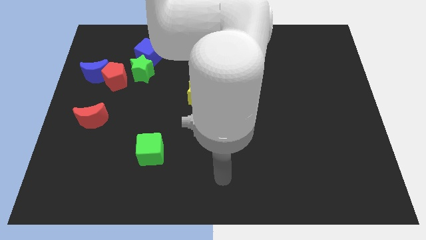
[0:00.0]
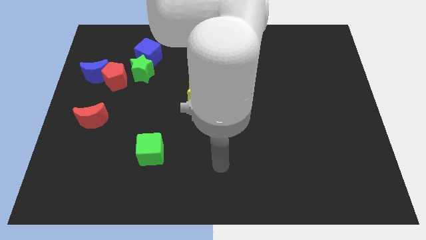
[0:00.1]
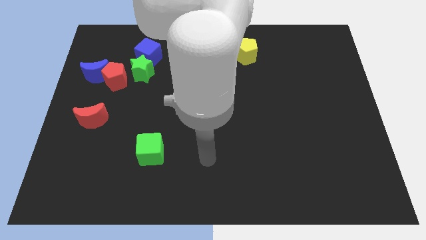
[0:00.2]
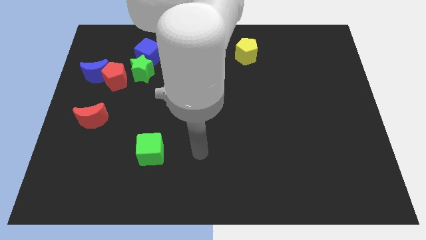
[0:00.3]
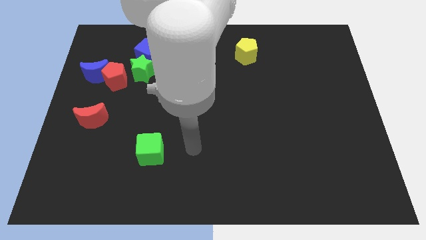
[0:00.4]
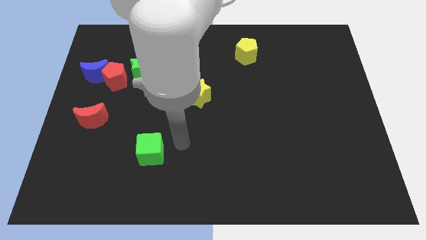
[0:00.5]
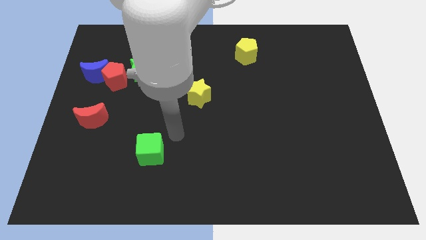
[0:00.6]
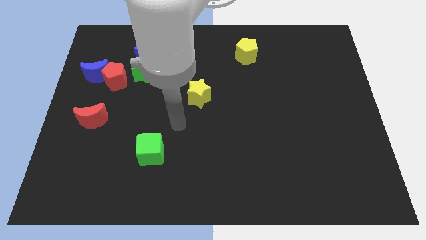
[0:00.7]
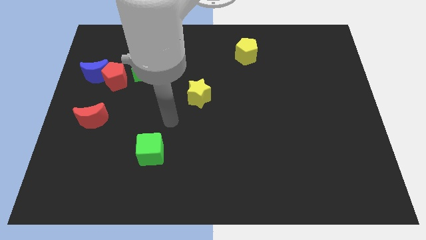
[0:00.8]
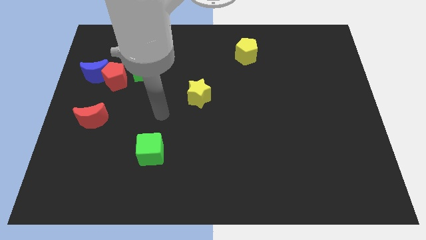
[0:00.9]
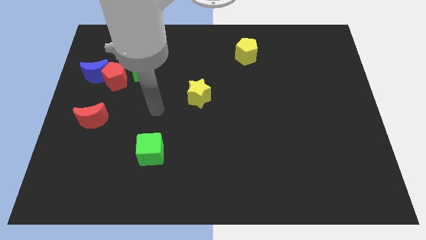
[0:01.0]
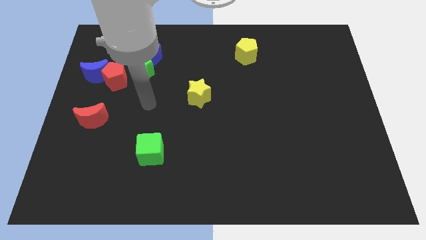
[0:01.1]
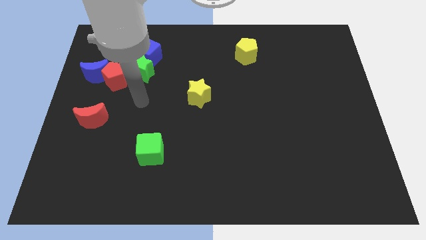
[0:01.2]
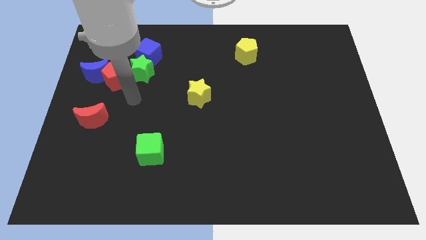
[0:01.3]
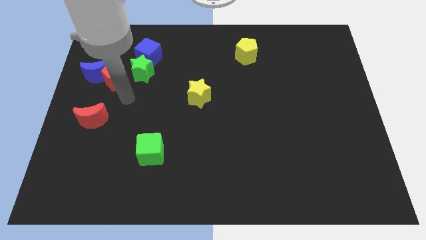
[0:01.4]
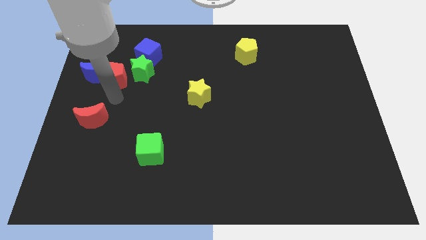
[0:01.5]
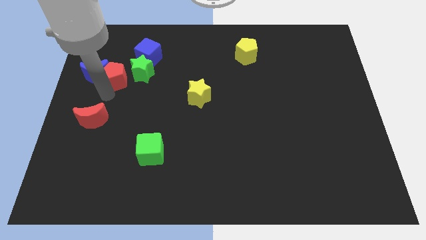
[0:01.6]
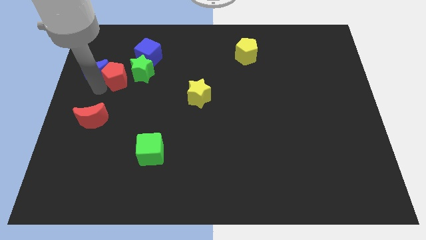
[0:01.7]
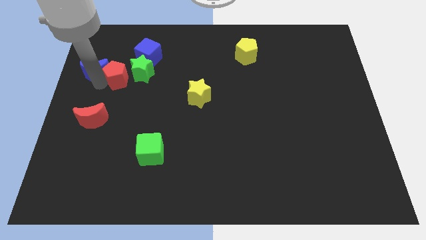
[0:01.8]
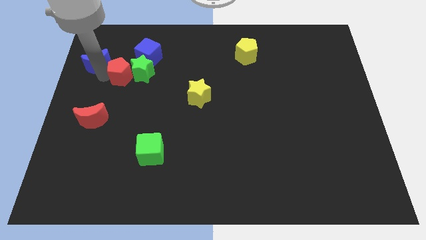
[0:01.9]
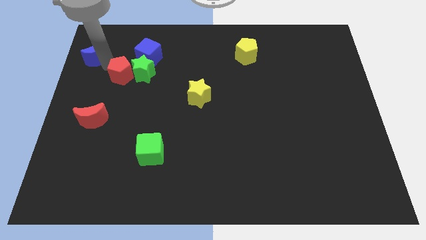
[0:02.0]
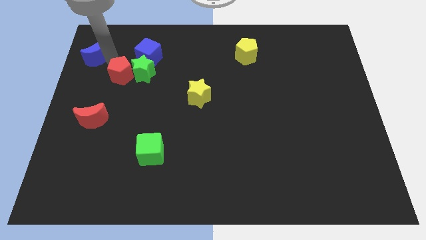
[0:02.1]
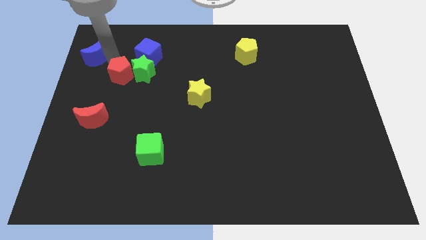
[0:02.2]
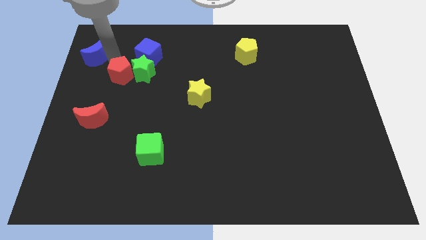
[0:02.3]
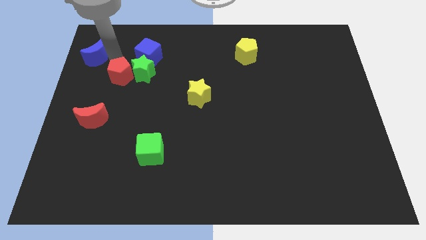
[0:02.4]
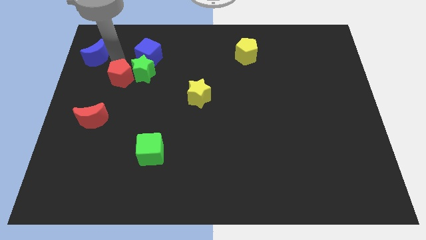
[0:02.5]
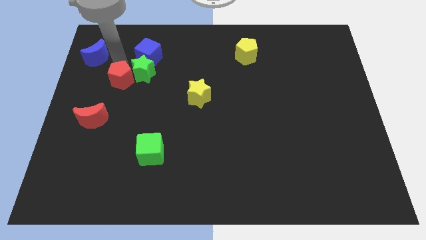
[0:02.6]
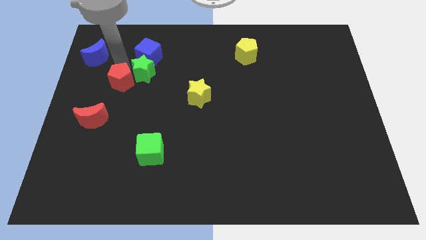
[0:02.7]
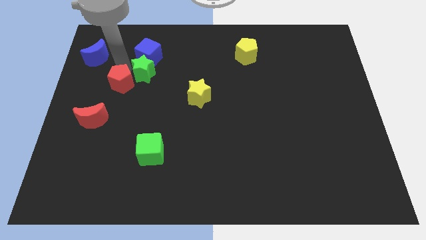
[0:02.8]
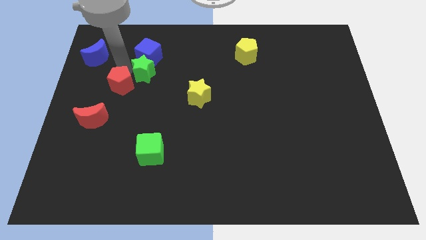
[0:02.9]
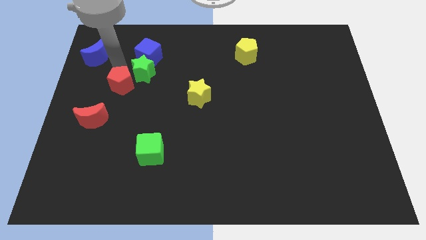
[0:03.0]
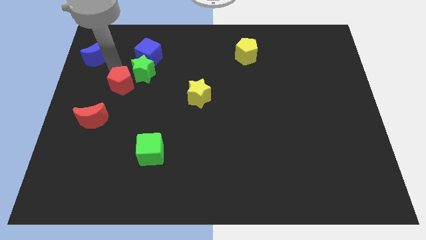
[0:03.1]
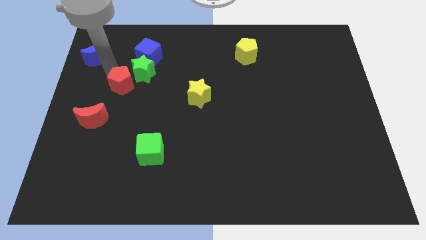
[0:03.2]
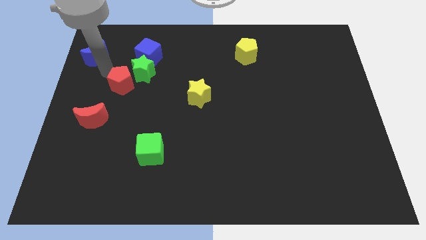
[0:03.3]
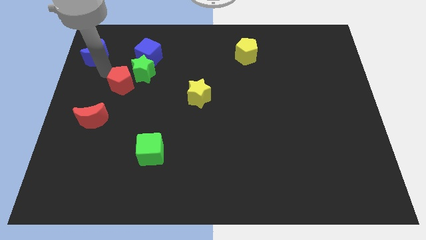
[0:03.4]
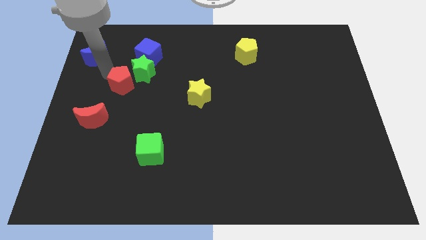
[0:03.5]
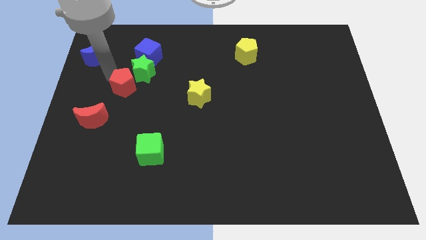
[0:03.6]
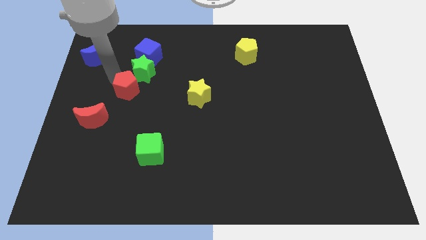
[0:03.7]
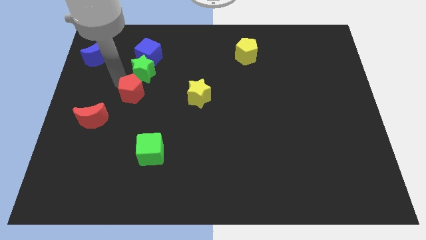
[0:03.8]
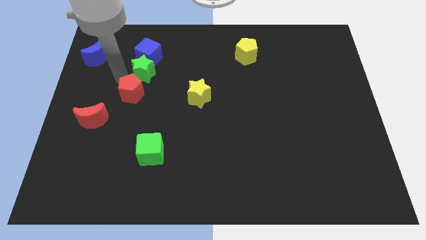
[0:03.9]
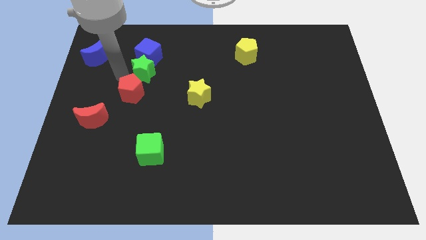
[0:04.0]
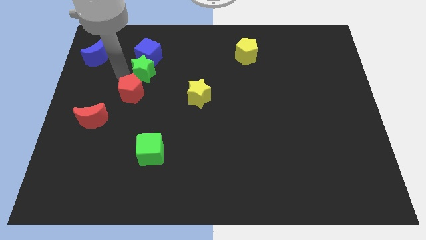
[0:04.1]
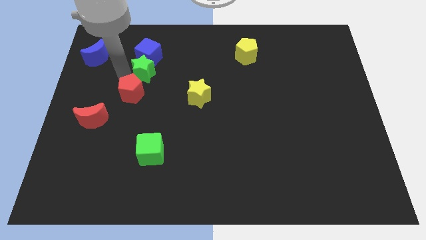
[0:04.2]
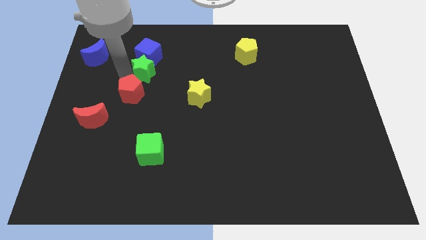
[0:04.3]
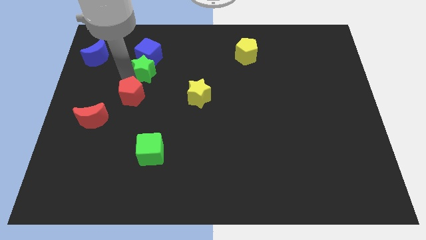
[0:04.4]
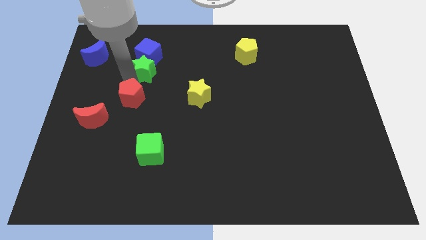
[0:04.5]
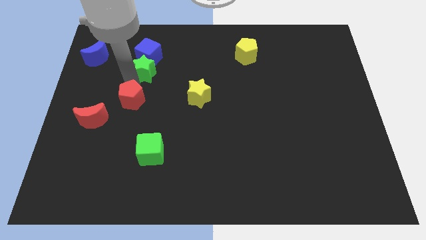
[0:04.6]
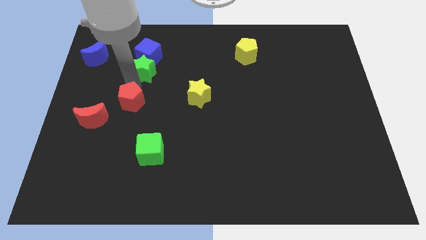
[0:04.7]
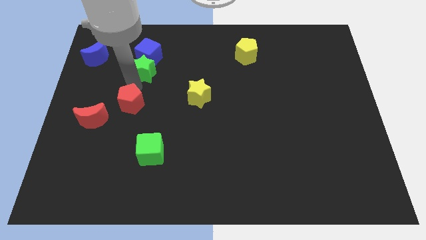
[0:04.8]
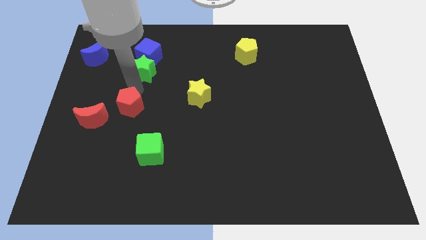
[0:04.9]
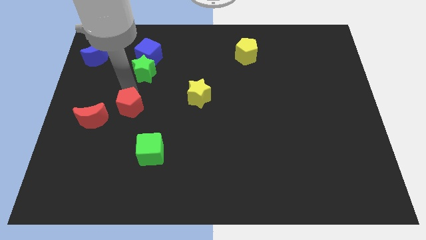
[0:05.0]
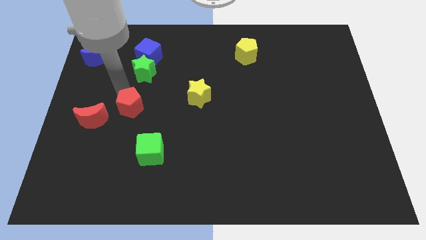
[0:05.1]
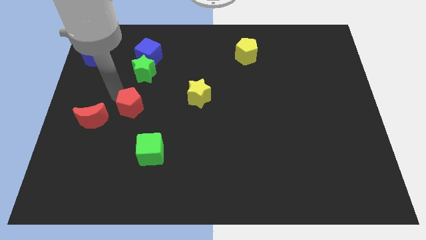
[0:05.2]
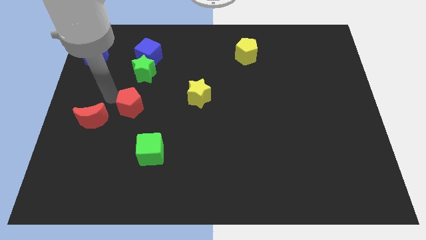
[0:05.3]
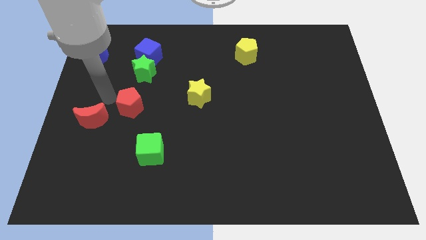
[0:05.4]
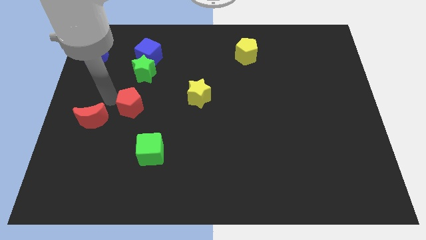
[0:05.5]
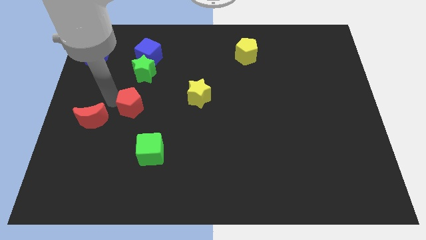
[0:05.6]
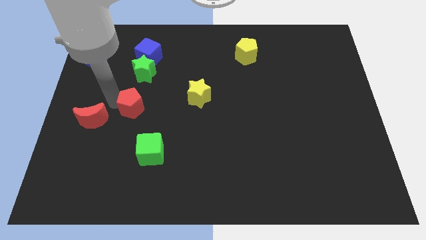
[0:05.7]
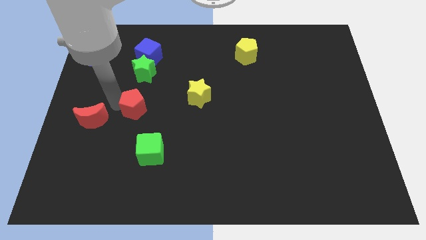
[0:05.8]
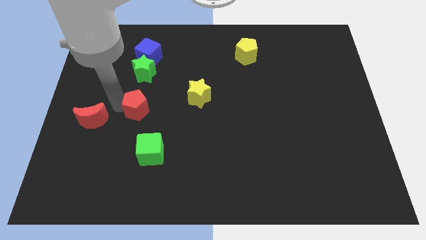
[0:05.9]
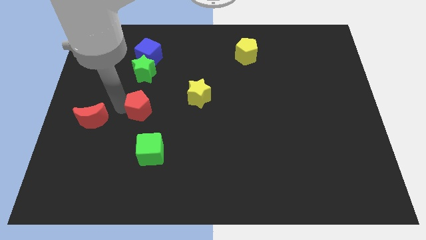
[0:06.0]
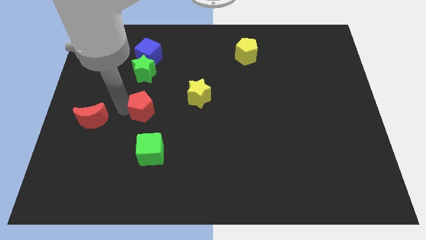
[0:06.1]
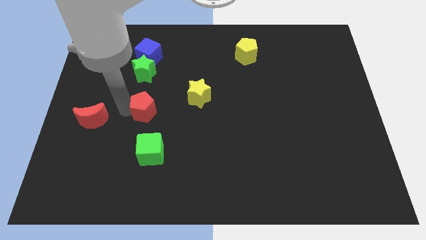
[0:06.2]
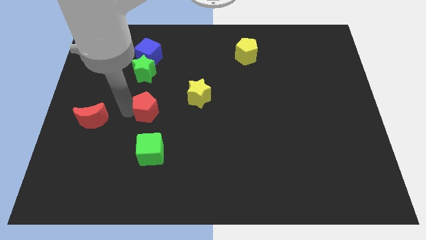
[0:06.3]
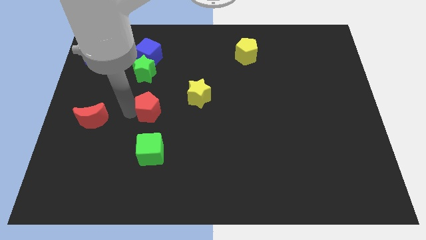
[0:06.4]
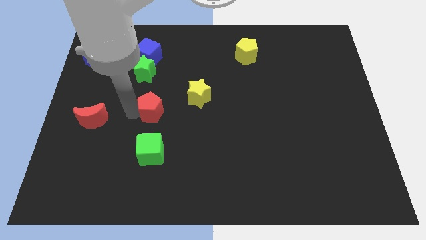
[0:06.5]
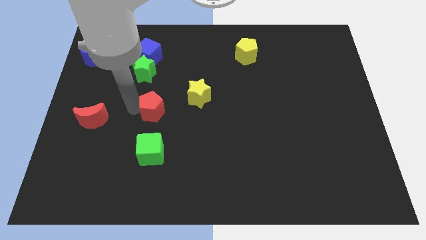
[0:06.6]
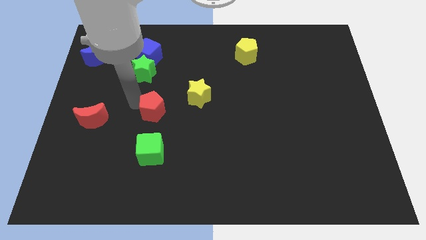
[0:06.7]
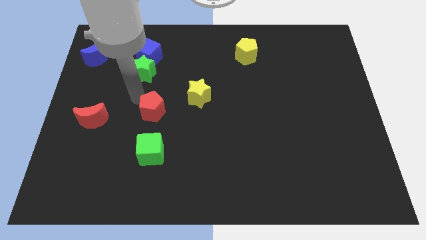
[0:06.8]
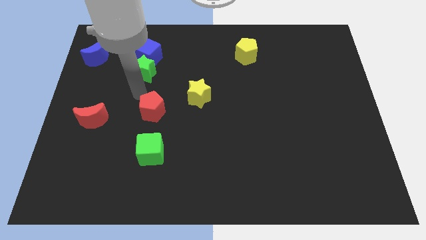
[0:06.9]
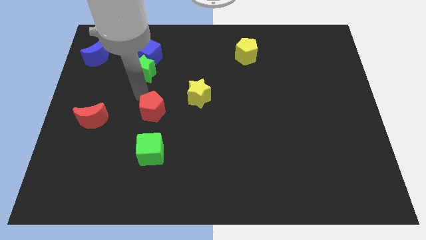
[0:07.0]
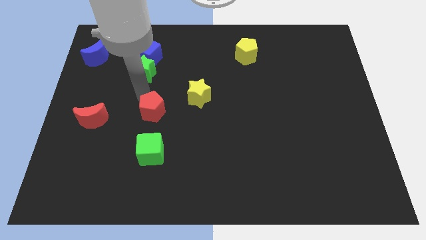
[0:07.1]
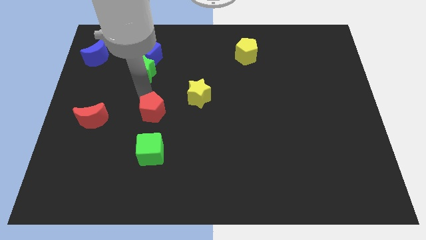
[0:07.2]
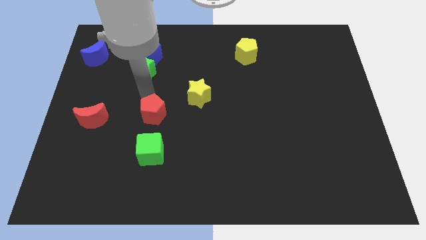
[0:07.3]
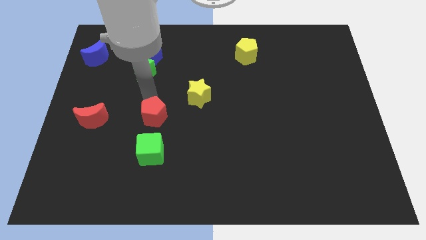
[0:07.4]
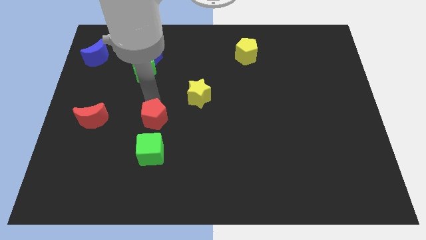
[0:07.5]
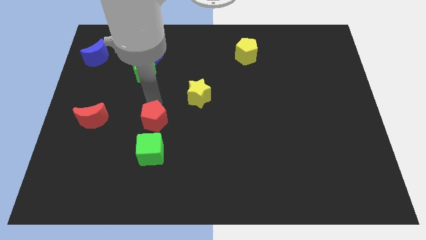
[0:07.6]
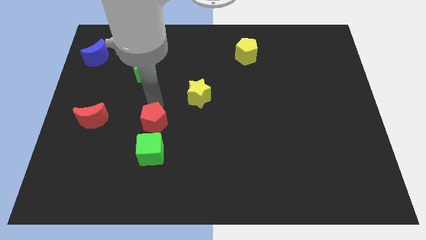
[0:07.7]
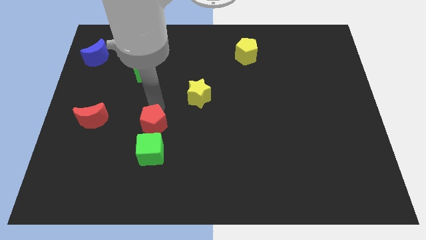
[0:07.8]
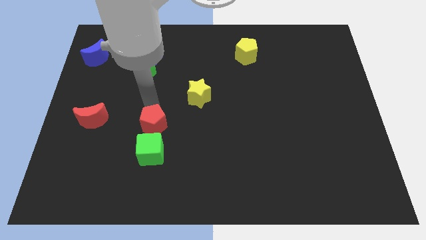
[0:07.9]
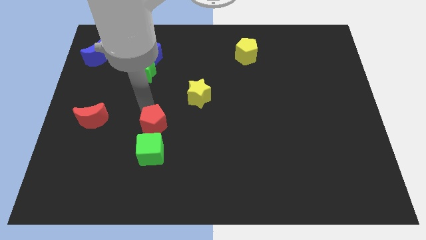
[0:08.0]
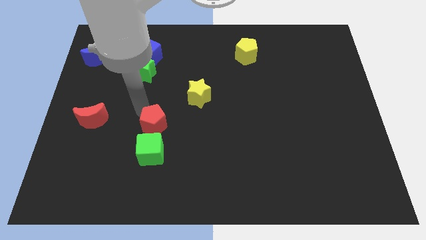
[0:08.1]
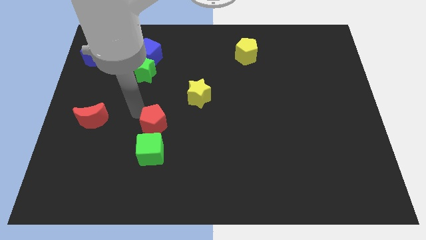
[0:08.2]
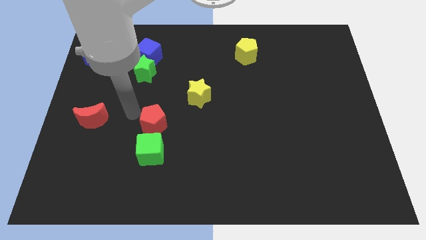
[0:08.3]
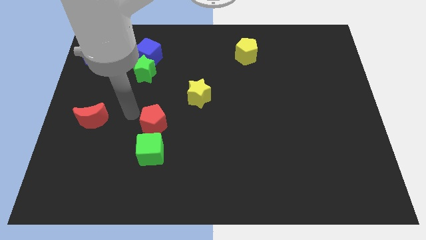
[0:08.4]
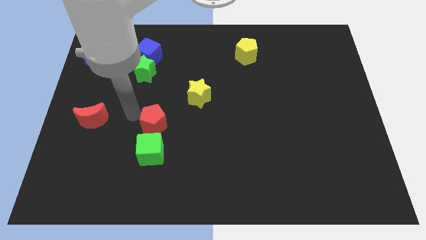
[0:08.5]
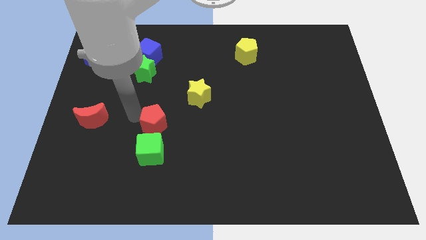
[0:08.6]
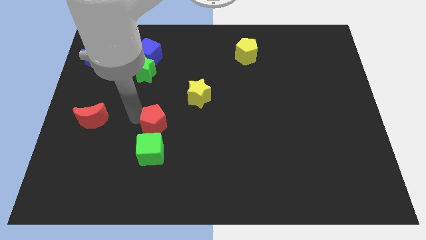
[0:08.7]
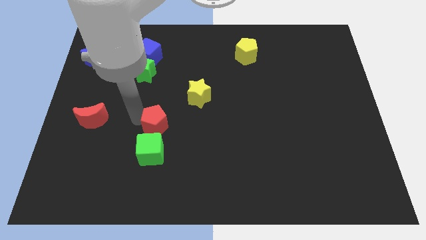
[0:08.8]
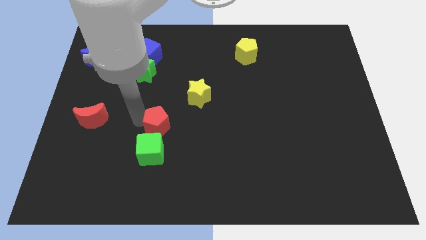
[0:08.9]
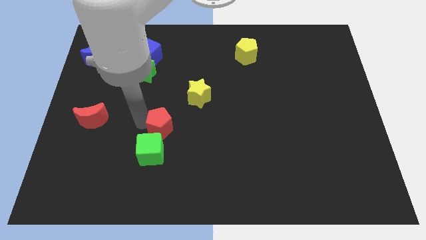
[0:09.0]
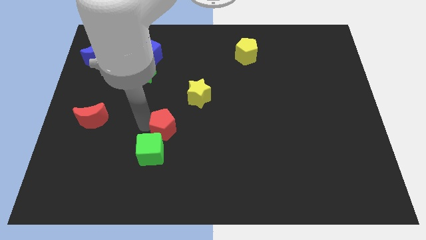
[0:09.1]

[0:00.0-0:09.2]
slide the red pentagon down and to the right
